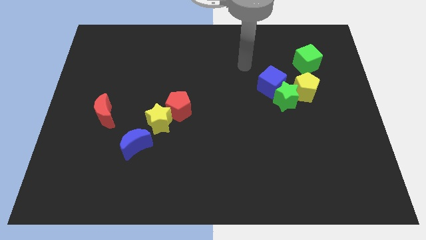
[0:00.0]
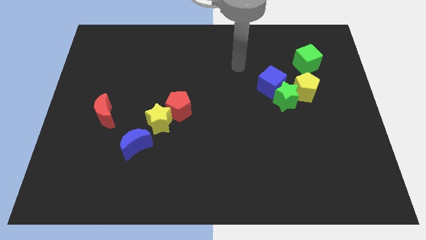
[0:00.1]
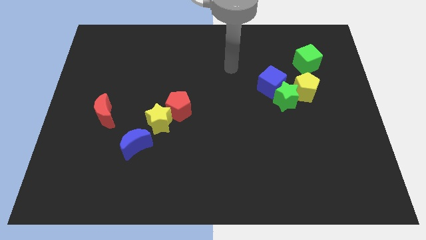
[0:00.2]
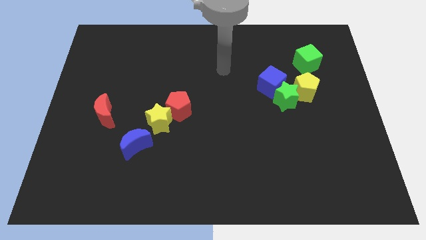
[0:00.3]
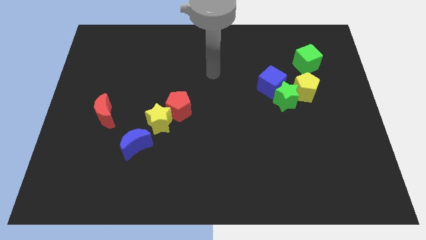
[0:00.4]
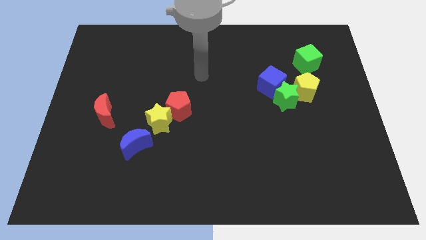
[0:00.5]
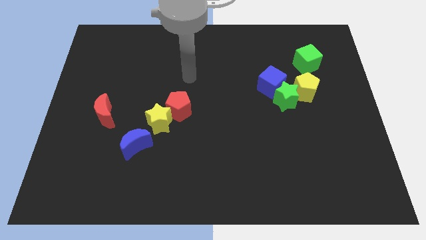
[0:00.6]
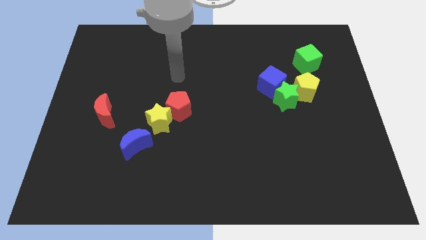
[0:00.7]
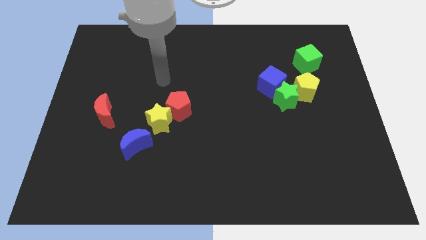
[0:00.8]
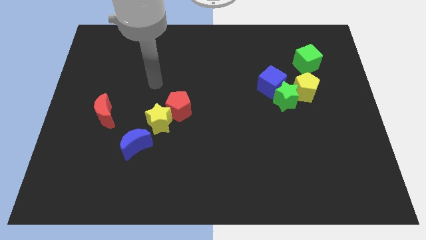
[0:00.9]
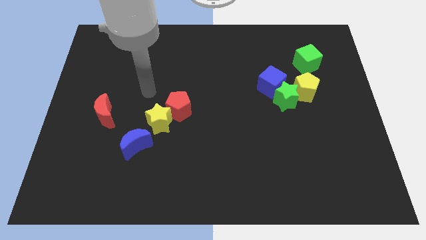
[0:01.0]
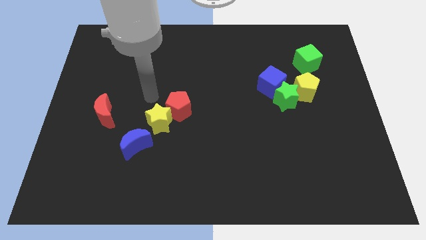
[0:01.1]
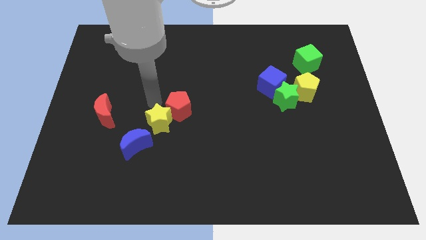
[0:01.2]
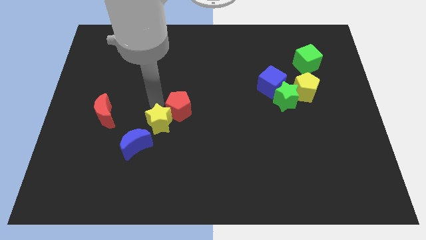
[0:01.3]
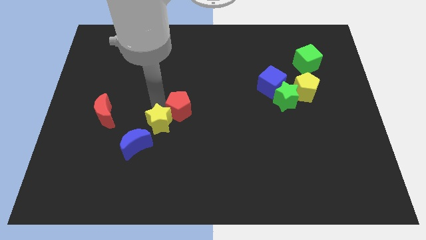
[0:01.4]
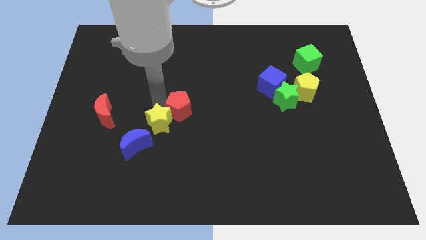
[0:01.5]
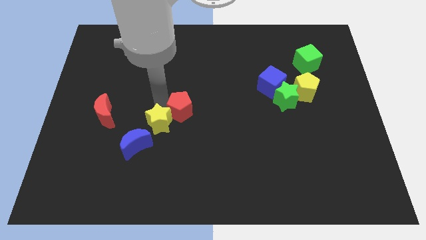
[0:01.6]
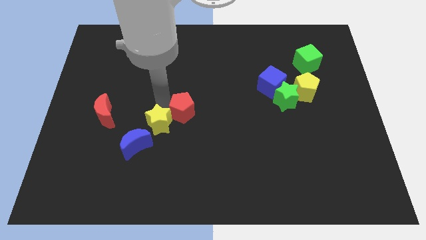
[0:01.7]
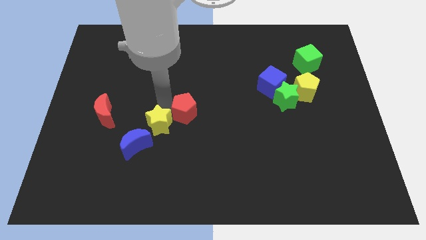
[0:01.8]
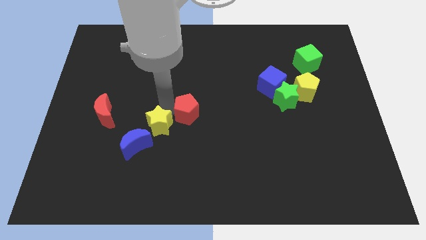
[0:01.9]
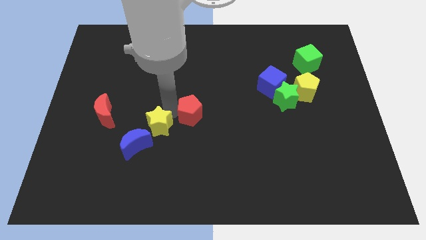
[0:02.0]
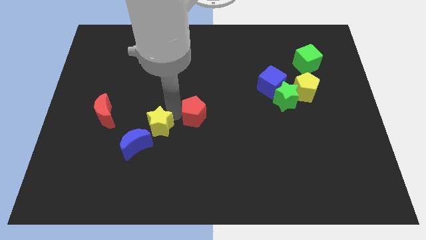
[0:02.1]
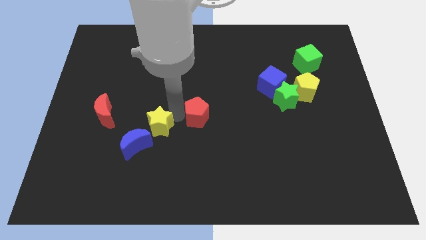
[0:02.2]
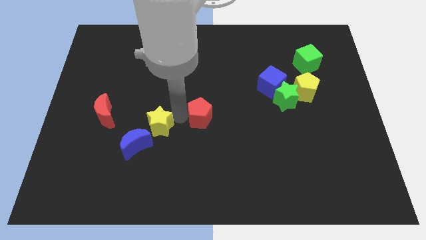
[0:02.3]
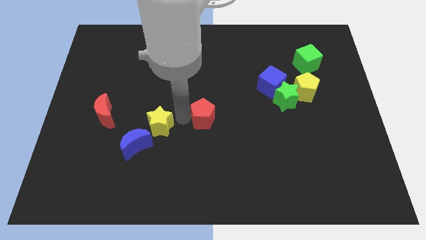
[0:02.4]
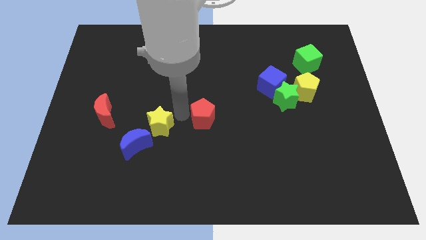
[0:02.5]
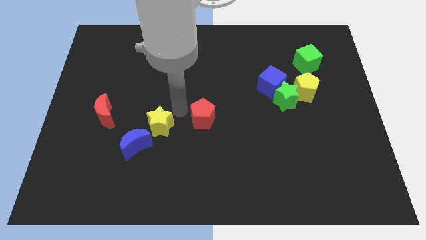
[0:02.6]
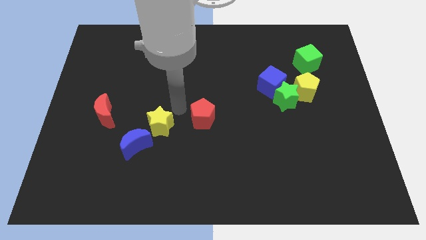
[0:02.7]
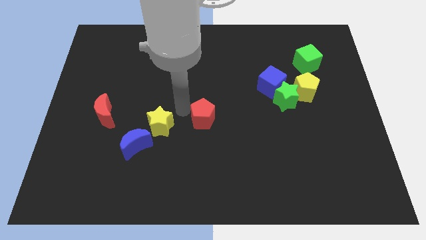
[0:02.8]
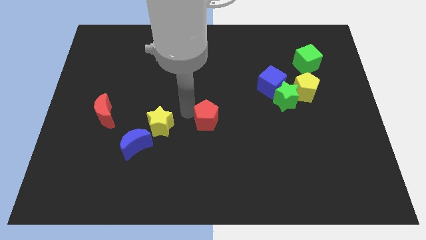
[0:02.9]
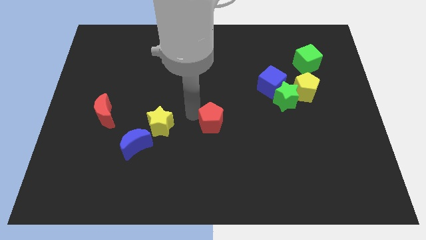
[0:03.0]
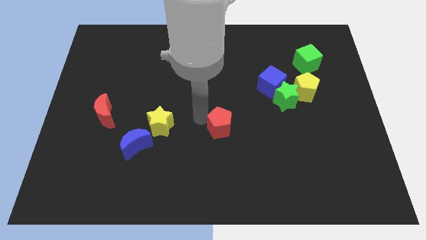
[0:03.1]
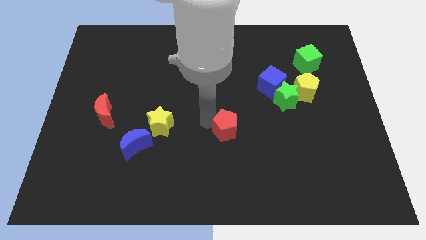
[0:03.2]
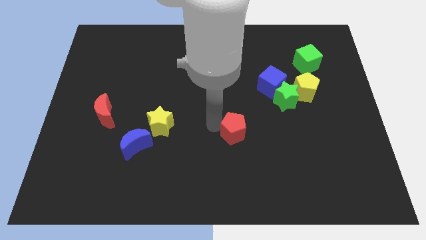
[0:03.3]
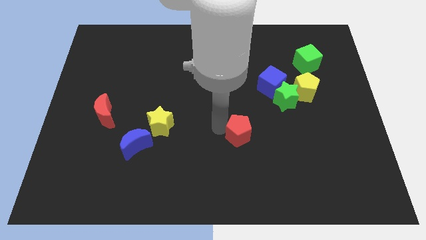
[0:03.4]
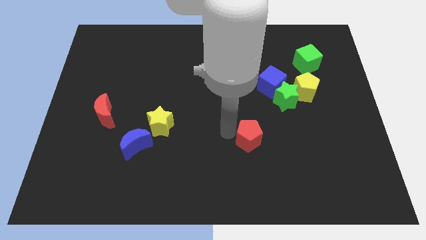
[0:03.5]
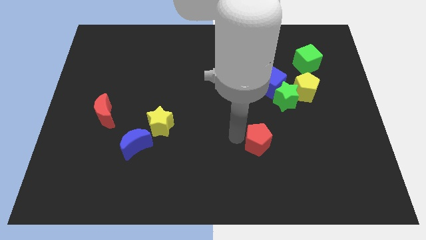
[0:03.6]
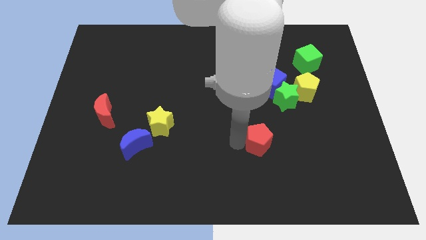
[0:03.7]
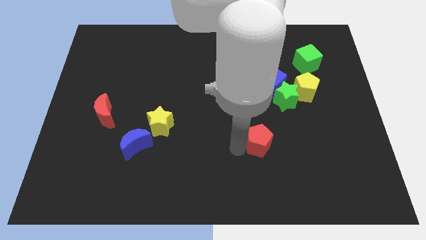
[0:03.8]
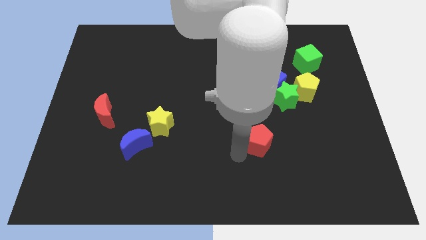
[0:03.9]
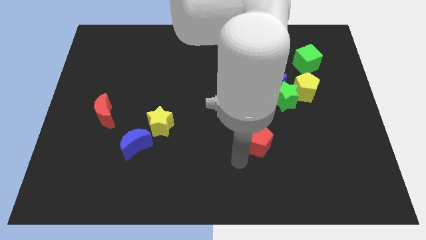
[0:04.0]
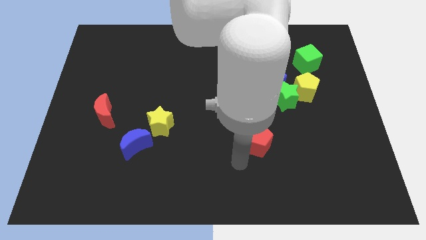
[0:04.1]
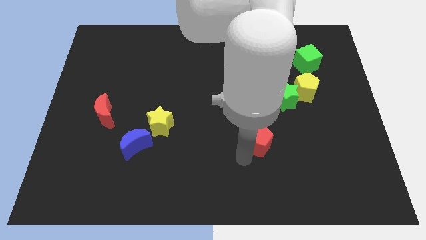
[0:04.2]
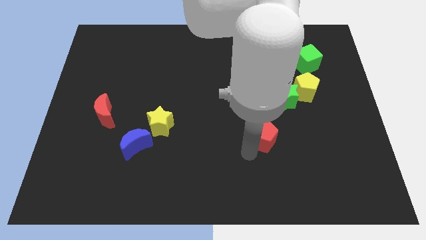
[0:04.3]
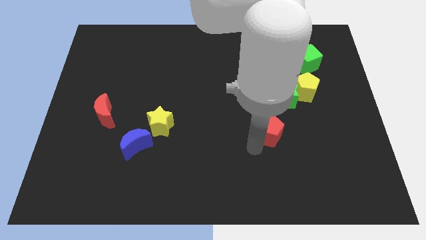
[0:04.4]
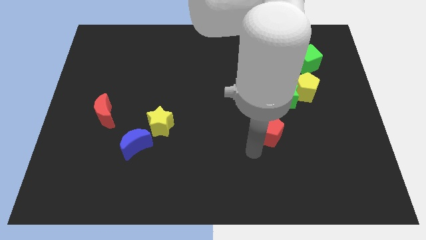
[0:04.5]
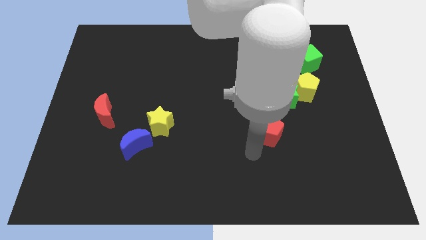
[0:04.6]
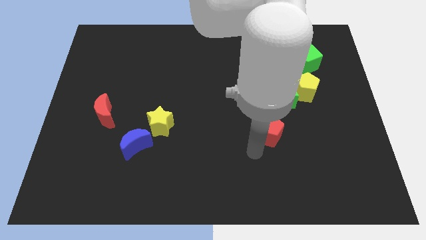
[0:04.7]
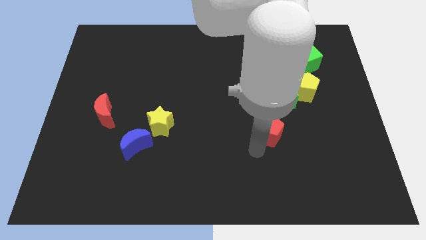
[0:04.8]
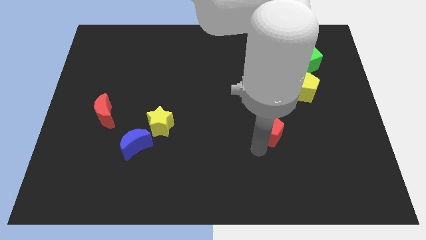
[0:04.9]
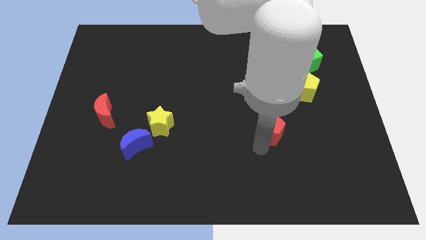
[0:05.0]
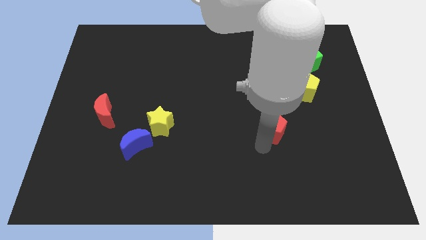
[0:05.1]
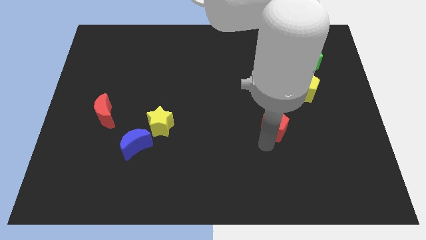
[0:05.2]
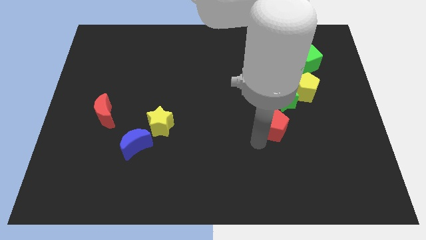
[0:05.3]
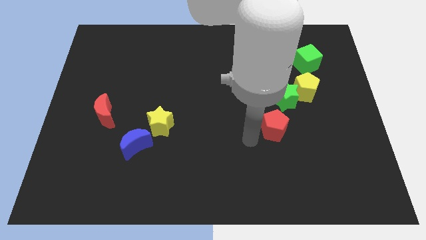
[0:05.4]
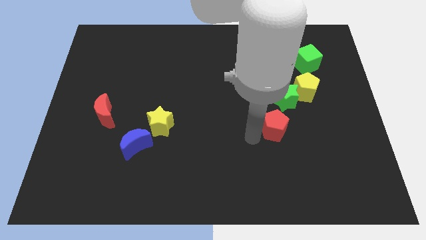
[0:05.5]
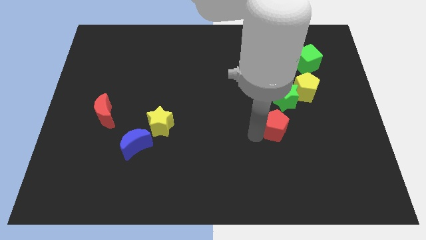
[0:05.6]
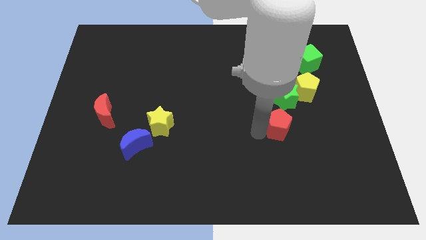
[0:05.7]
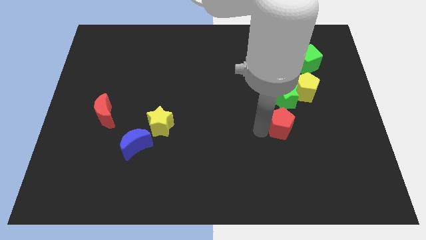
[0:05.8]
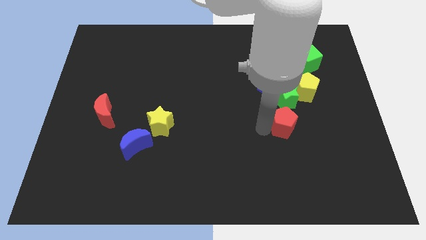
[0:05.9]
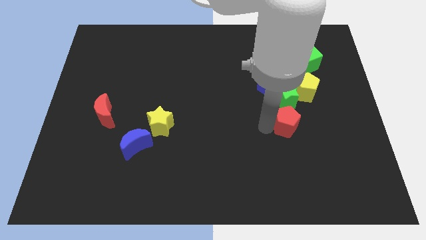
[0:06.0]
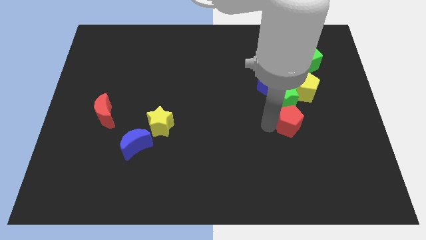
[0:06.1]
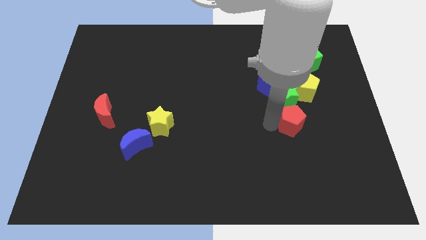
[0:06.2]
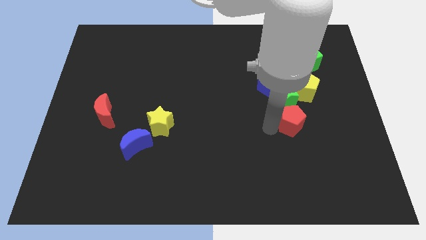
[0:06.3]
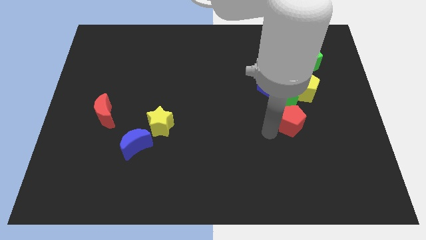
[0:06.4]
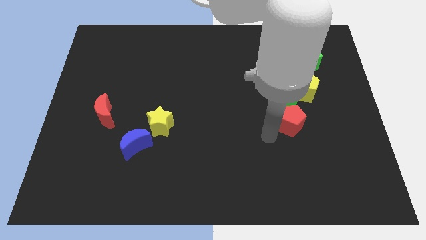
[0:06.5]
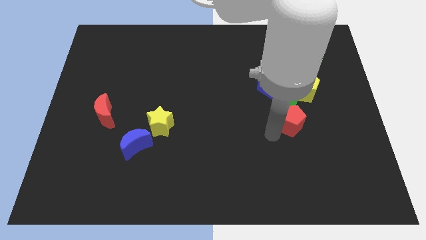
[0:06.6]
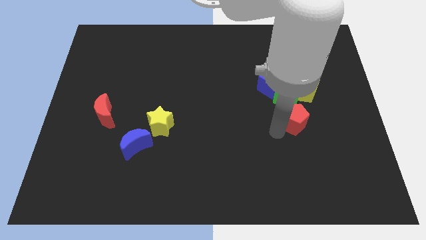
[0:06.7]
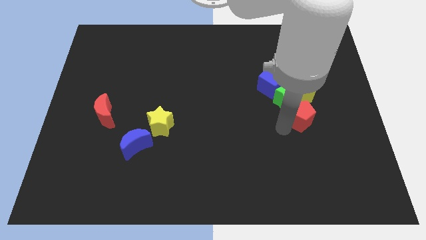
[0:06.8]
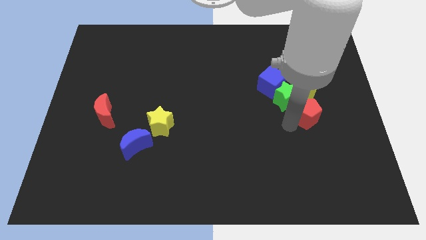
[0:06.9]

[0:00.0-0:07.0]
move the red pentagon right of the green star
